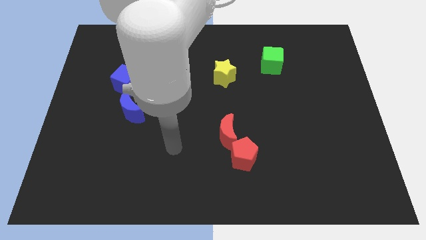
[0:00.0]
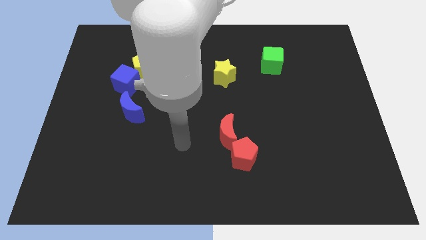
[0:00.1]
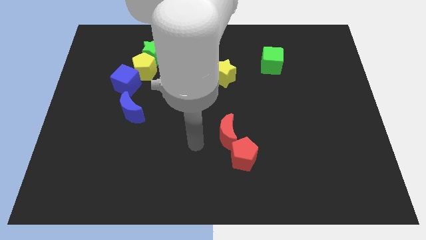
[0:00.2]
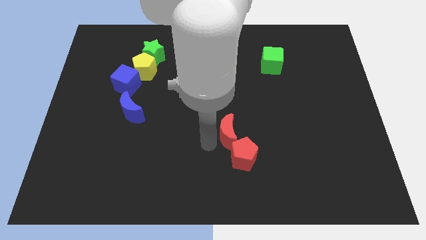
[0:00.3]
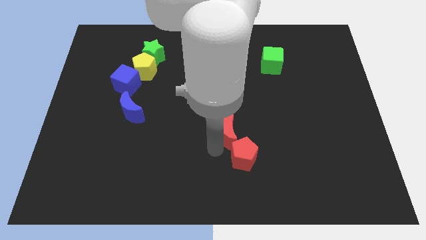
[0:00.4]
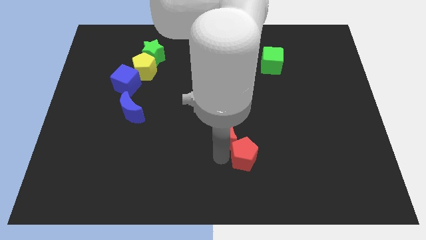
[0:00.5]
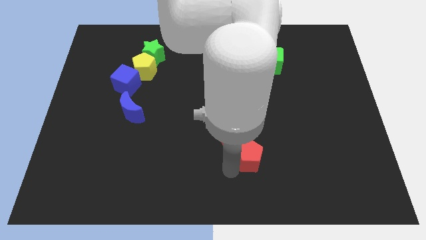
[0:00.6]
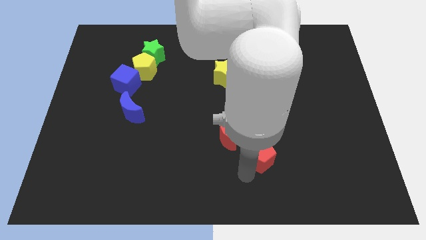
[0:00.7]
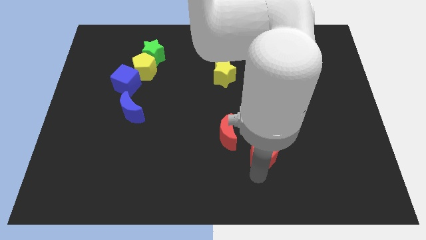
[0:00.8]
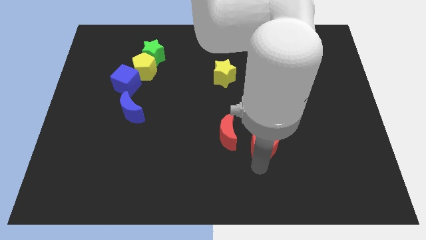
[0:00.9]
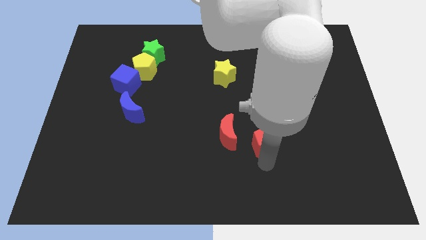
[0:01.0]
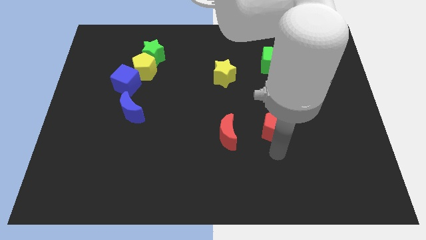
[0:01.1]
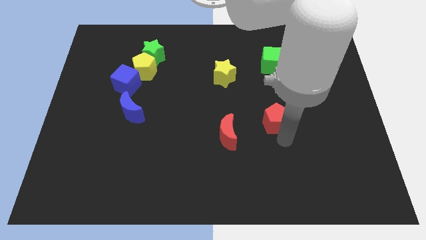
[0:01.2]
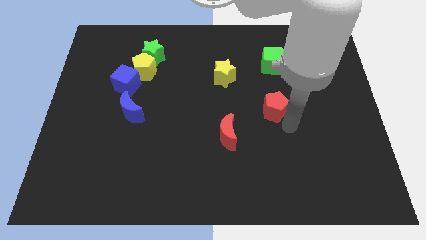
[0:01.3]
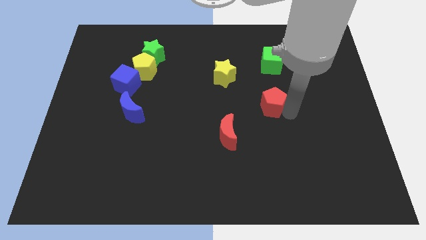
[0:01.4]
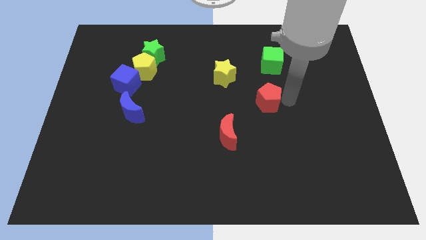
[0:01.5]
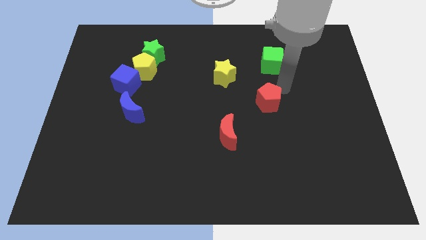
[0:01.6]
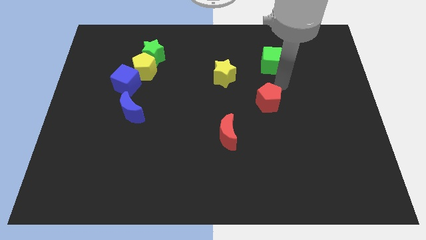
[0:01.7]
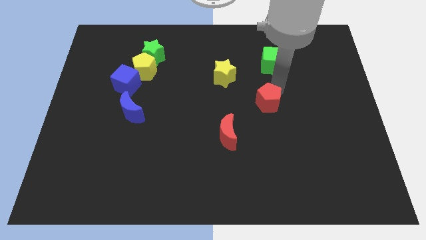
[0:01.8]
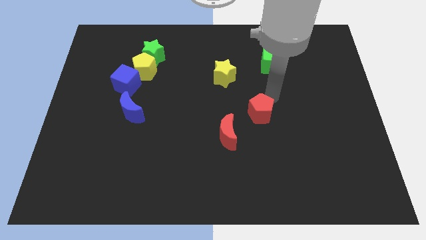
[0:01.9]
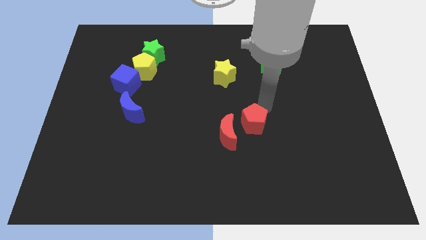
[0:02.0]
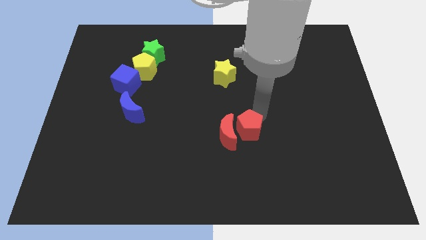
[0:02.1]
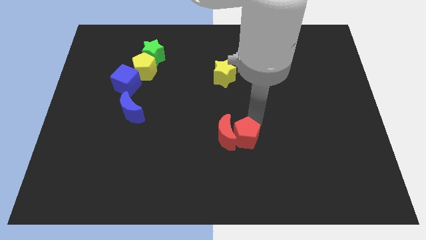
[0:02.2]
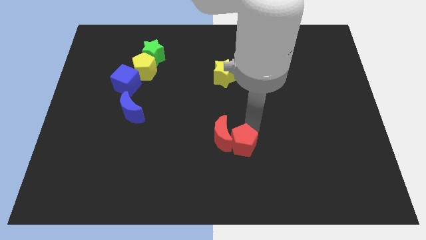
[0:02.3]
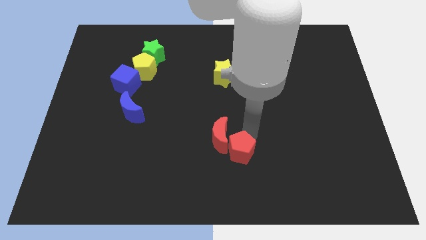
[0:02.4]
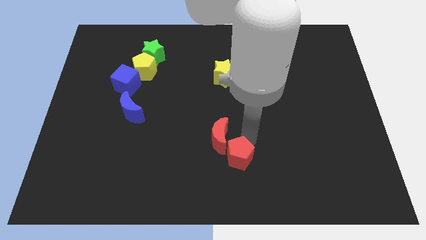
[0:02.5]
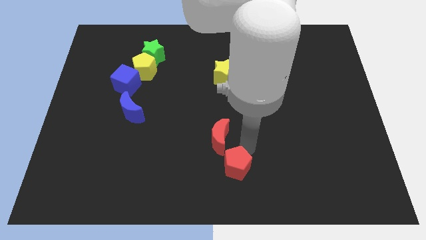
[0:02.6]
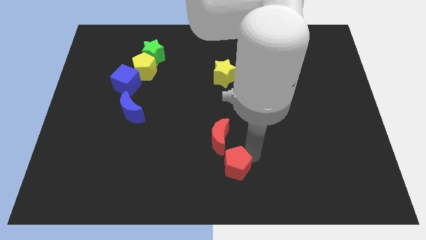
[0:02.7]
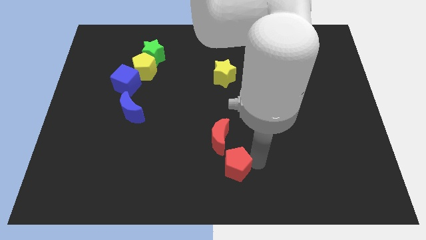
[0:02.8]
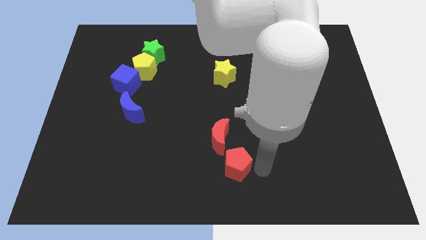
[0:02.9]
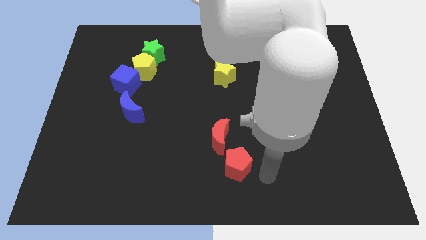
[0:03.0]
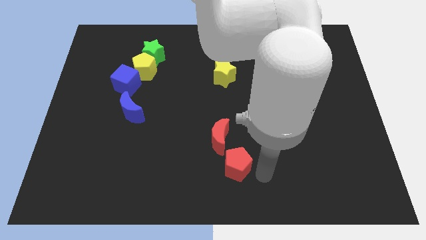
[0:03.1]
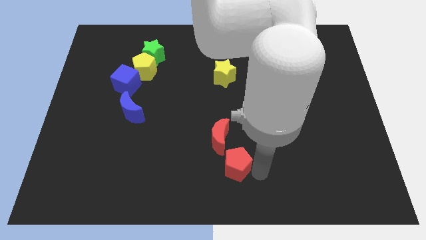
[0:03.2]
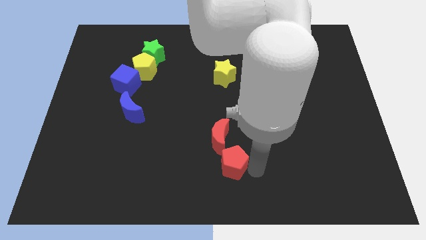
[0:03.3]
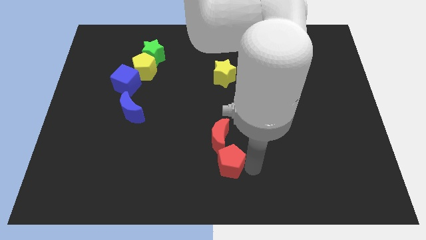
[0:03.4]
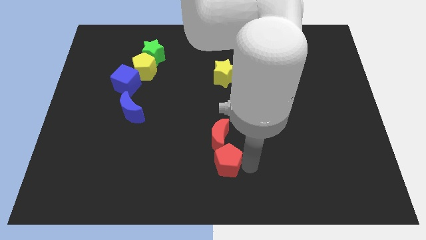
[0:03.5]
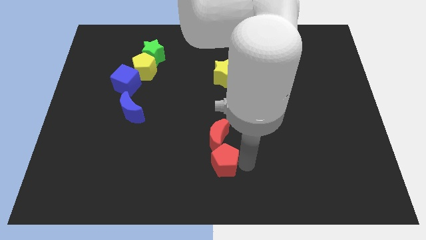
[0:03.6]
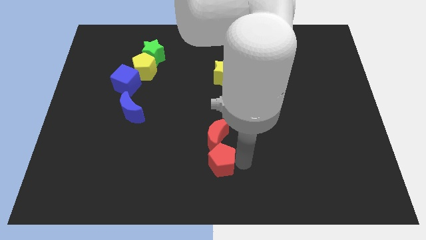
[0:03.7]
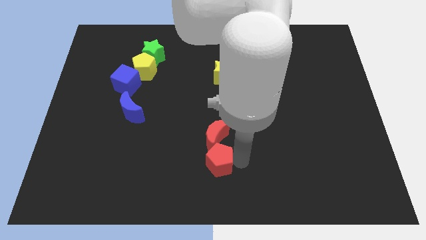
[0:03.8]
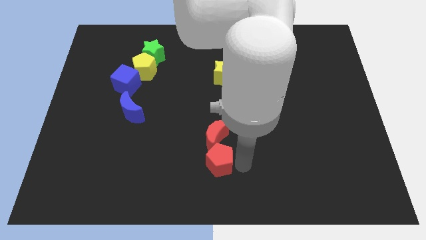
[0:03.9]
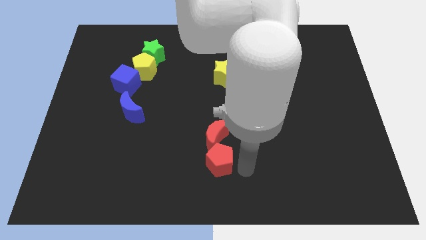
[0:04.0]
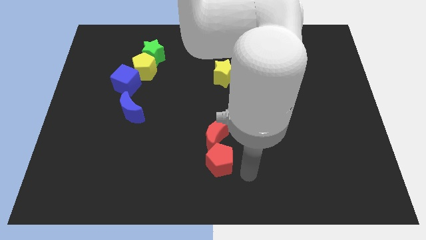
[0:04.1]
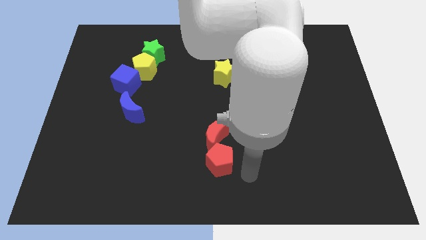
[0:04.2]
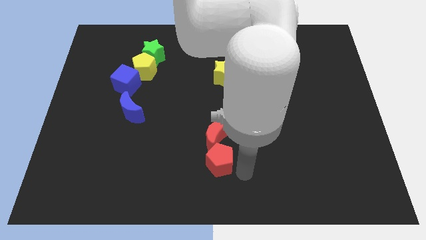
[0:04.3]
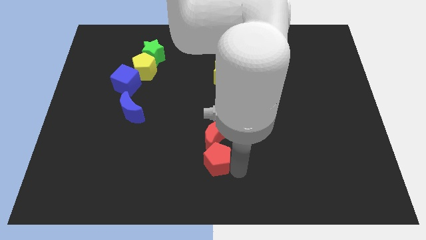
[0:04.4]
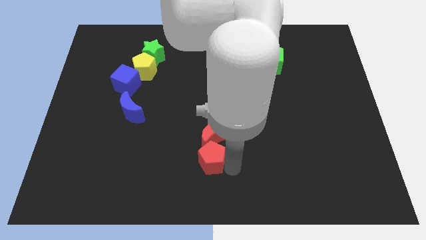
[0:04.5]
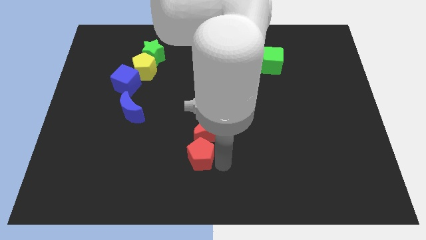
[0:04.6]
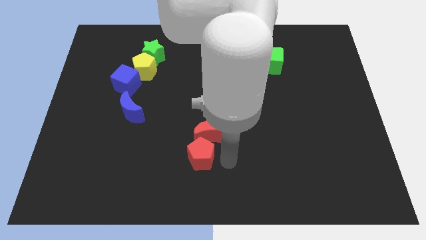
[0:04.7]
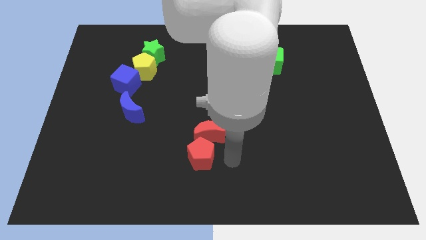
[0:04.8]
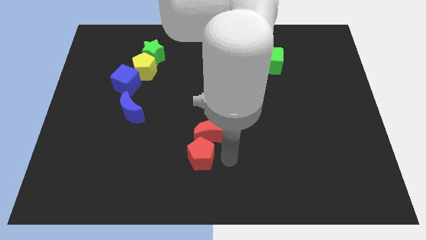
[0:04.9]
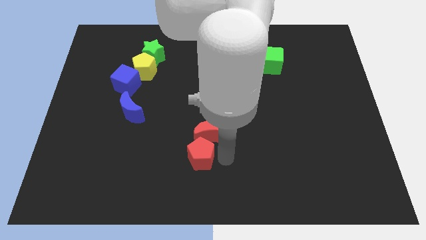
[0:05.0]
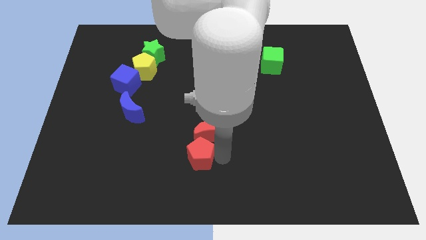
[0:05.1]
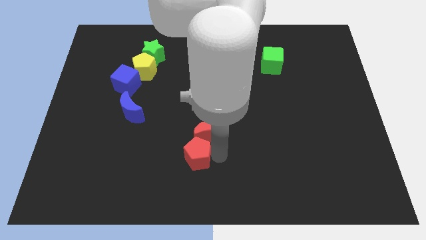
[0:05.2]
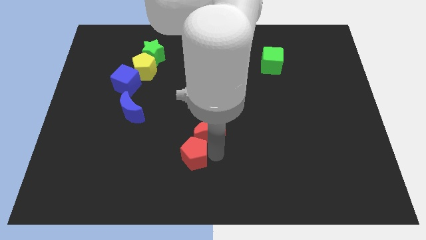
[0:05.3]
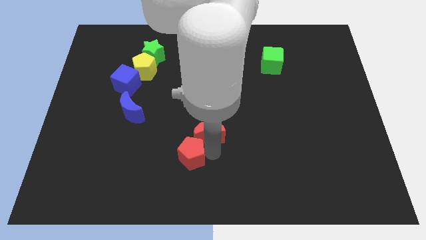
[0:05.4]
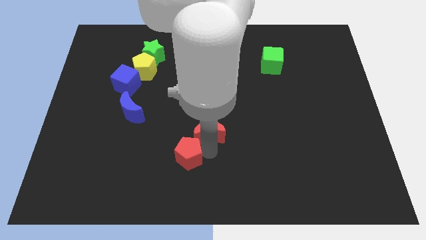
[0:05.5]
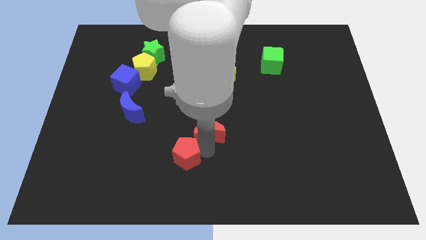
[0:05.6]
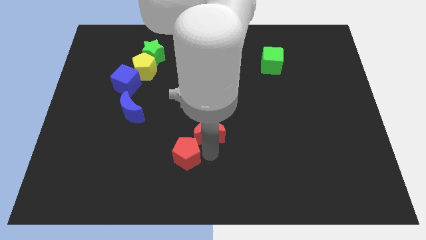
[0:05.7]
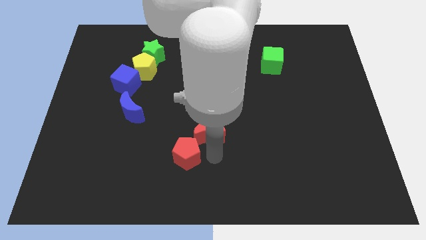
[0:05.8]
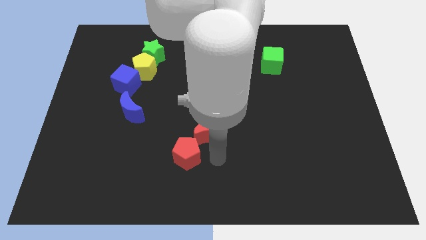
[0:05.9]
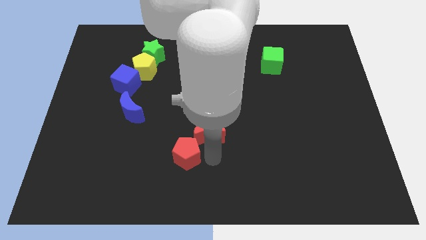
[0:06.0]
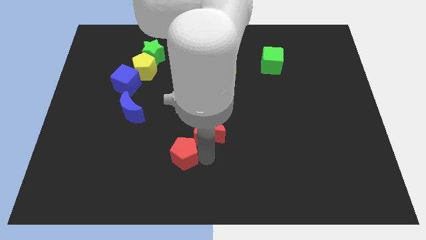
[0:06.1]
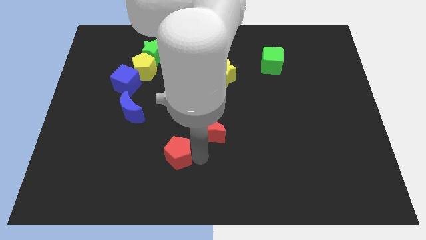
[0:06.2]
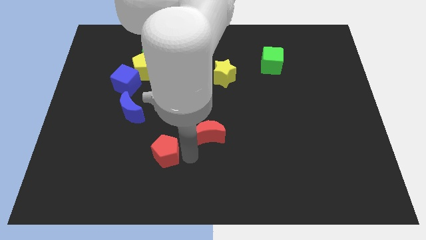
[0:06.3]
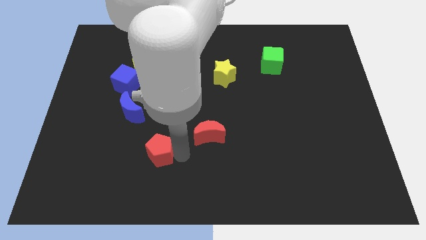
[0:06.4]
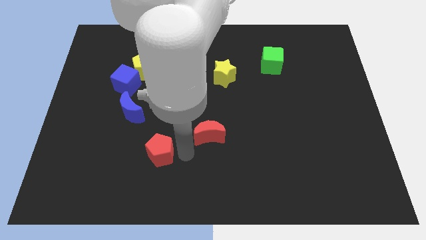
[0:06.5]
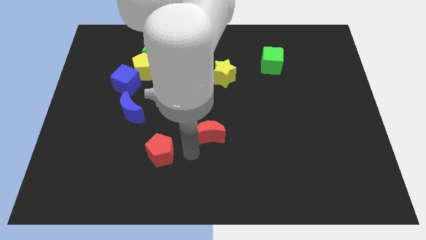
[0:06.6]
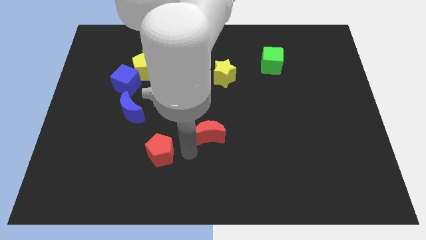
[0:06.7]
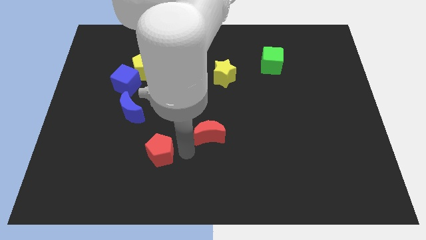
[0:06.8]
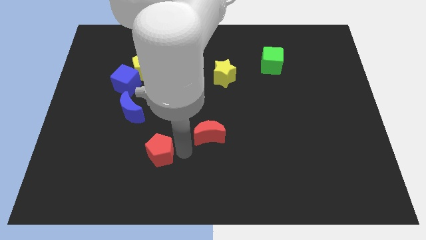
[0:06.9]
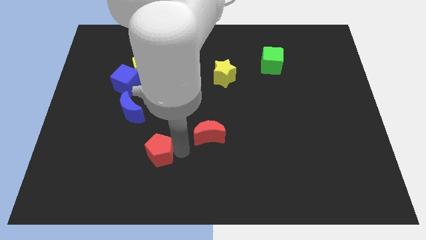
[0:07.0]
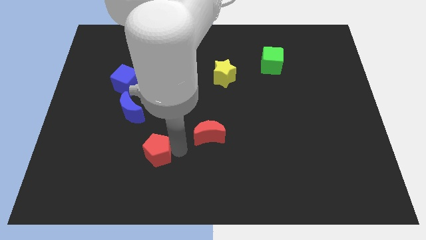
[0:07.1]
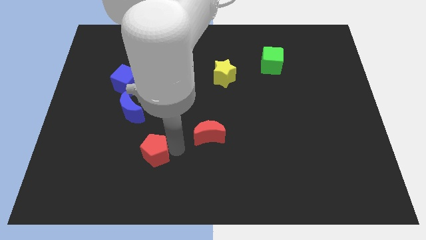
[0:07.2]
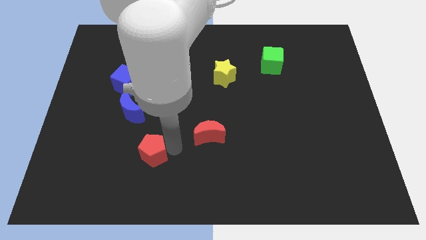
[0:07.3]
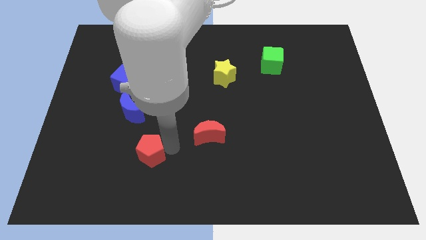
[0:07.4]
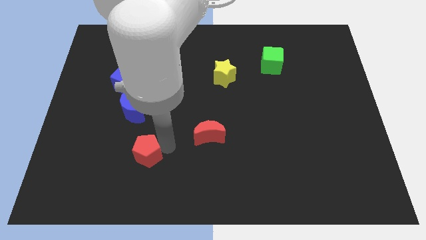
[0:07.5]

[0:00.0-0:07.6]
move the red pentagon left
